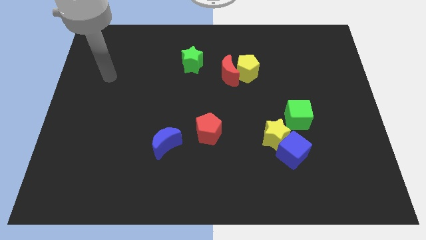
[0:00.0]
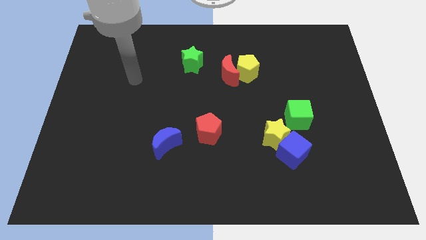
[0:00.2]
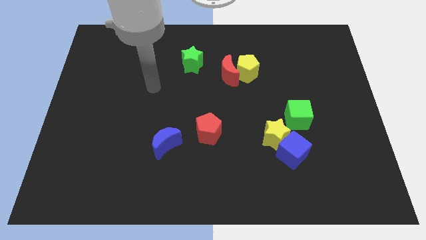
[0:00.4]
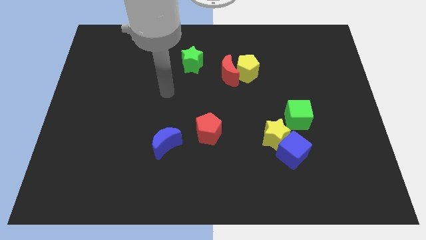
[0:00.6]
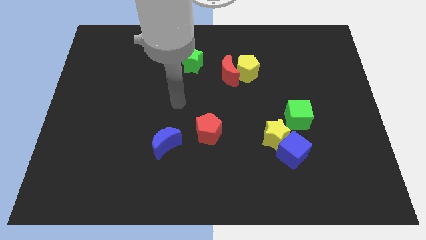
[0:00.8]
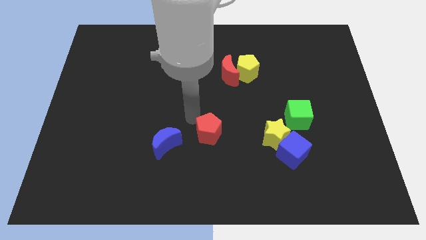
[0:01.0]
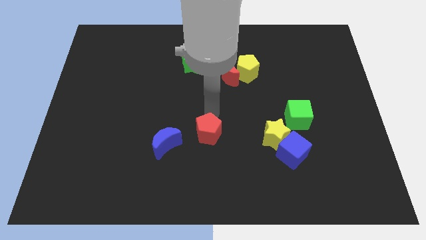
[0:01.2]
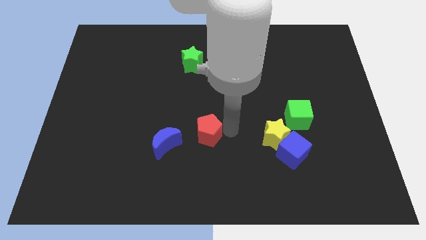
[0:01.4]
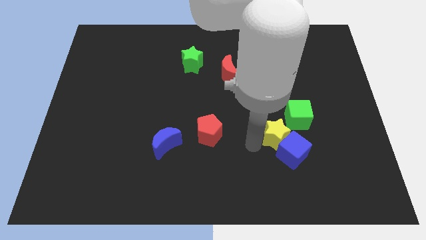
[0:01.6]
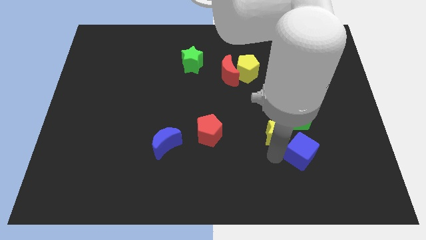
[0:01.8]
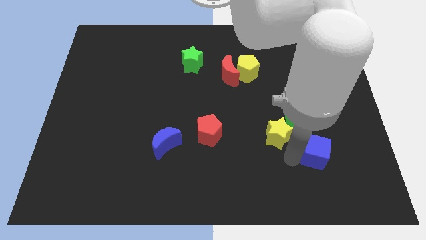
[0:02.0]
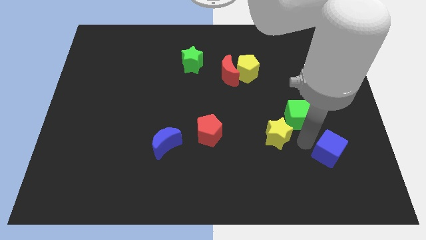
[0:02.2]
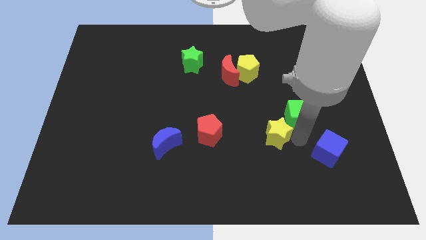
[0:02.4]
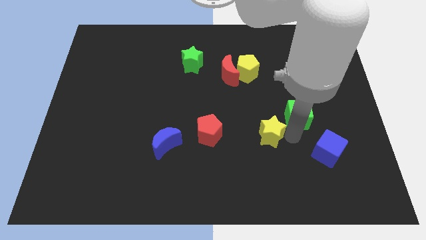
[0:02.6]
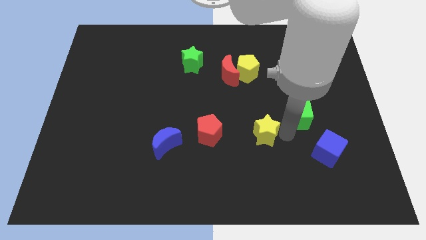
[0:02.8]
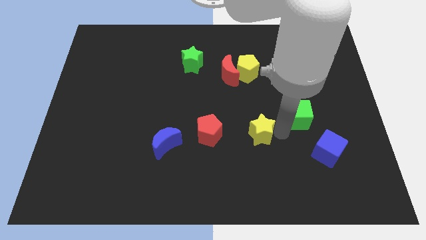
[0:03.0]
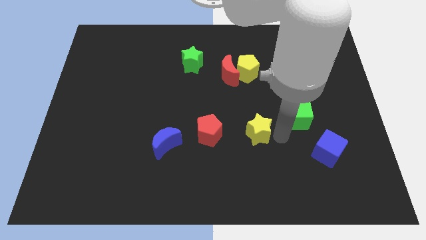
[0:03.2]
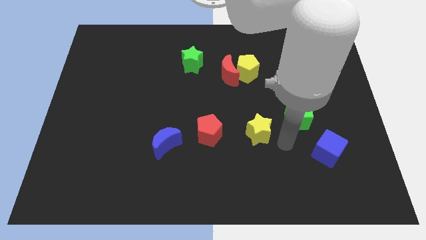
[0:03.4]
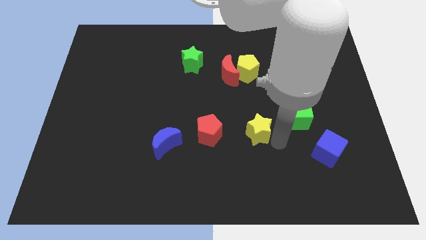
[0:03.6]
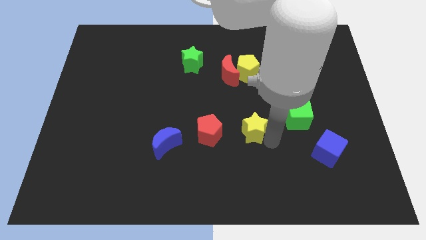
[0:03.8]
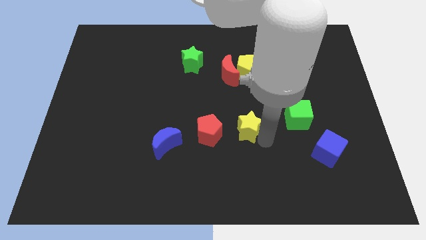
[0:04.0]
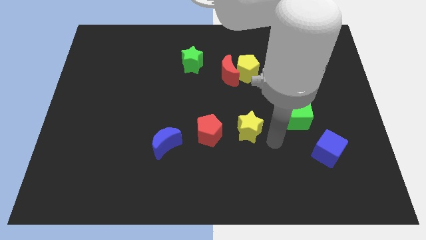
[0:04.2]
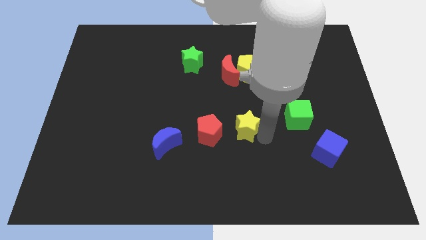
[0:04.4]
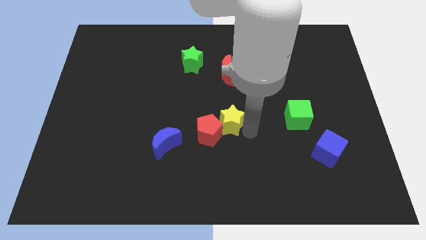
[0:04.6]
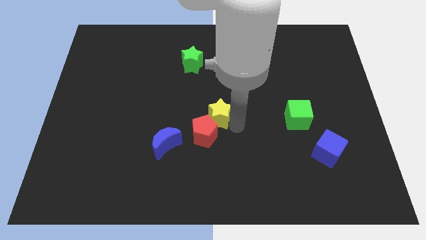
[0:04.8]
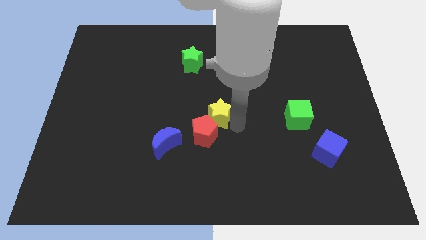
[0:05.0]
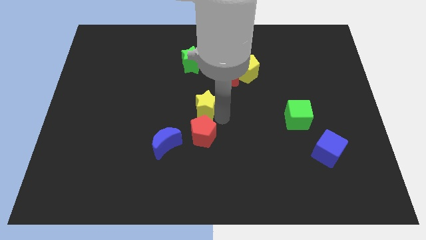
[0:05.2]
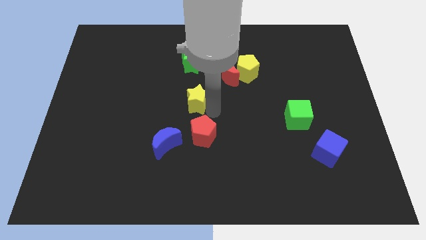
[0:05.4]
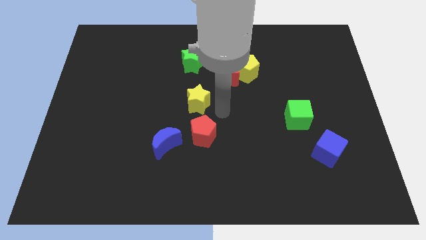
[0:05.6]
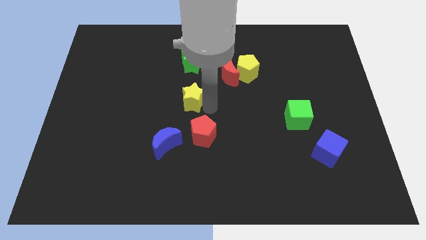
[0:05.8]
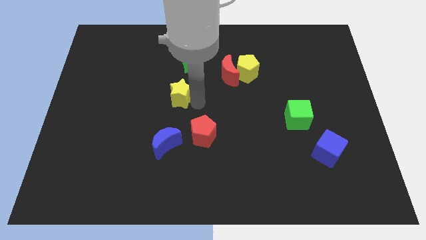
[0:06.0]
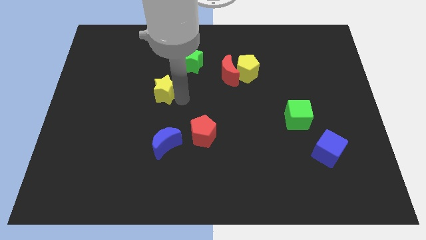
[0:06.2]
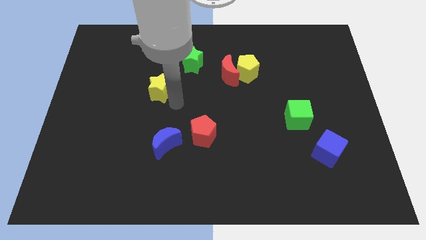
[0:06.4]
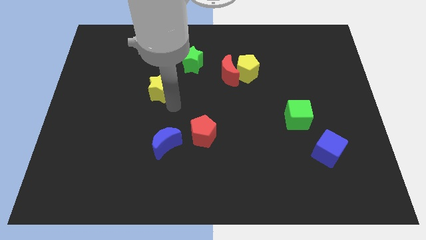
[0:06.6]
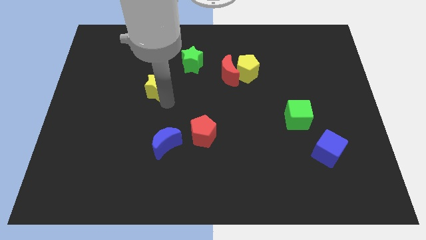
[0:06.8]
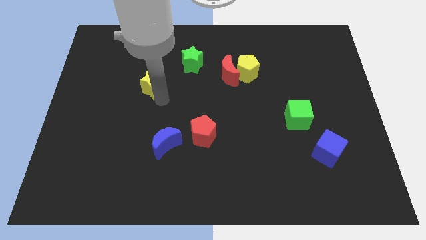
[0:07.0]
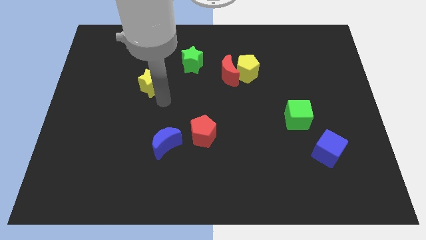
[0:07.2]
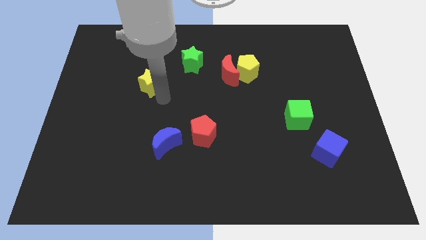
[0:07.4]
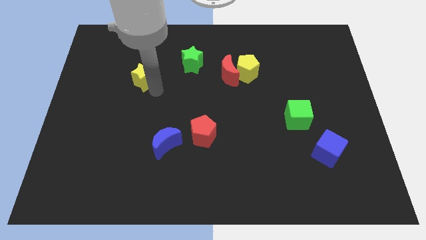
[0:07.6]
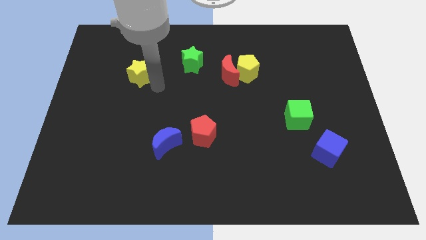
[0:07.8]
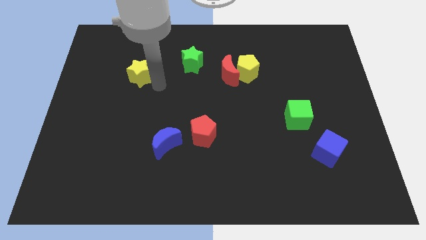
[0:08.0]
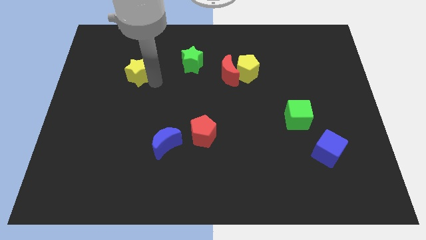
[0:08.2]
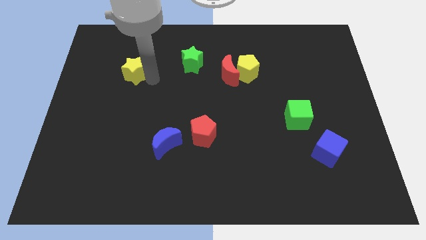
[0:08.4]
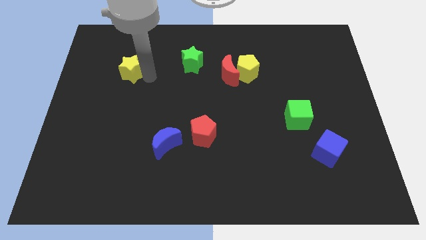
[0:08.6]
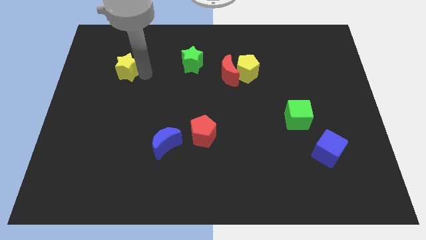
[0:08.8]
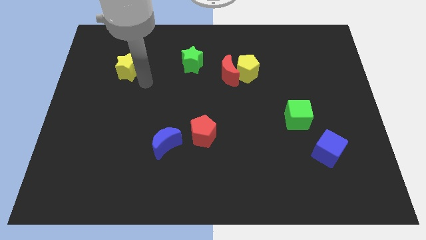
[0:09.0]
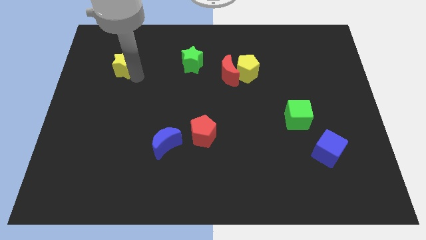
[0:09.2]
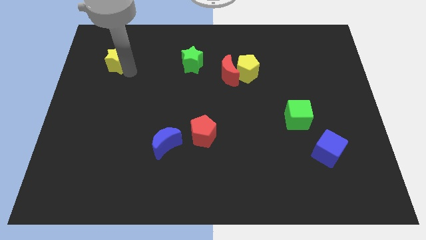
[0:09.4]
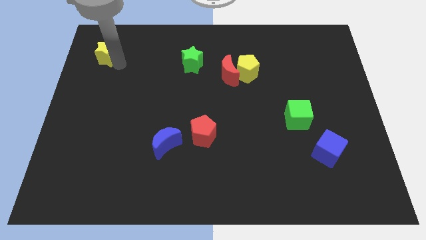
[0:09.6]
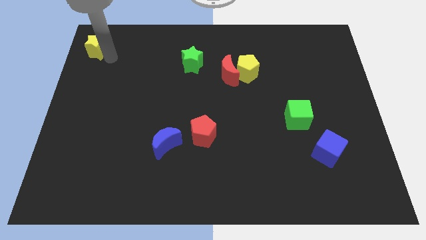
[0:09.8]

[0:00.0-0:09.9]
slide the yellow star to the top left corner

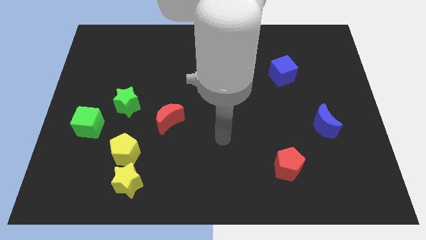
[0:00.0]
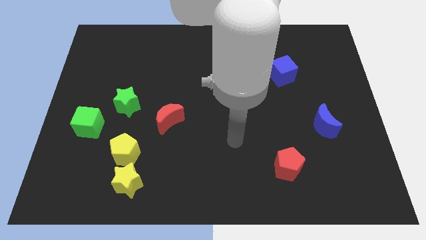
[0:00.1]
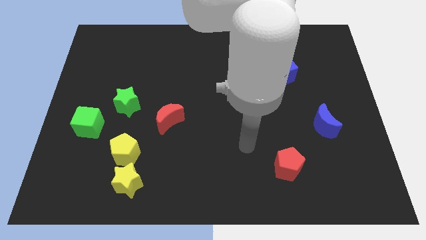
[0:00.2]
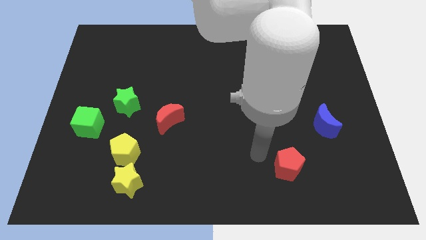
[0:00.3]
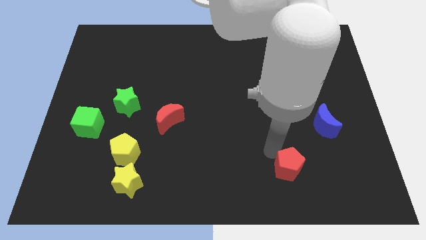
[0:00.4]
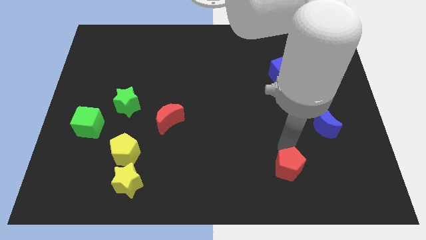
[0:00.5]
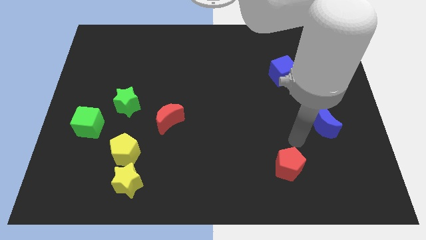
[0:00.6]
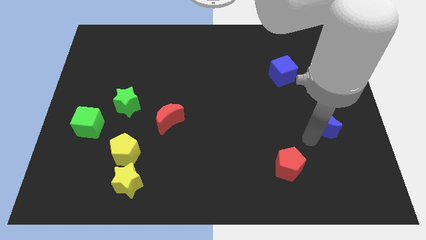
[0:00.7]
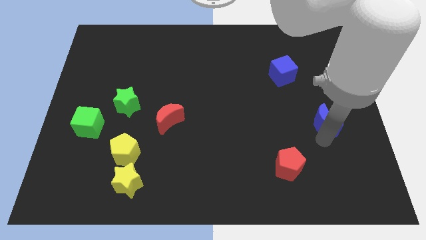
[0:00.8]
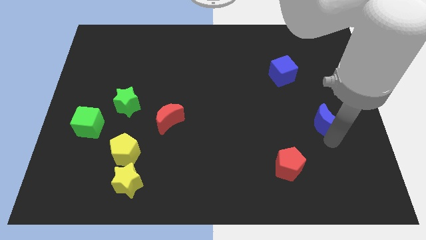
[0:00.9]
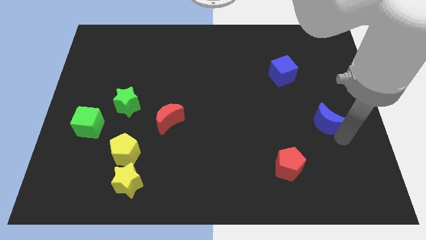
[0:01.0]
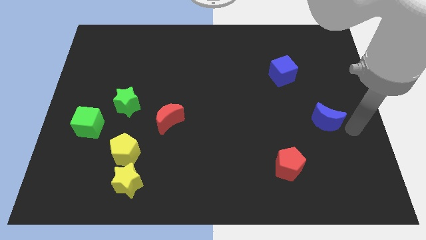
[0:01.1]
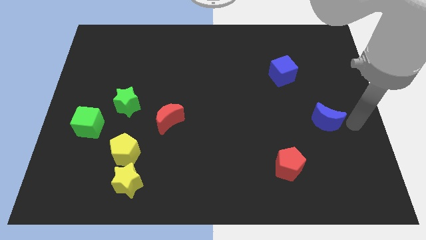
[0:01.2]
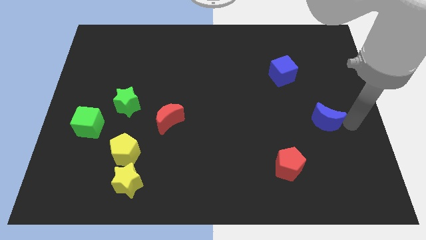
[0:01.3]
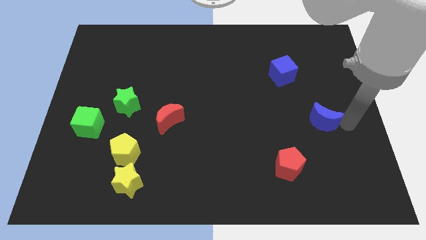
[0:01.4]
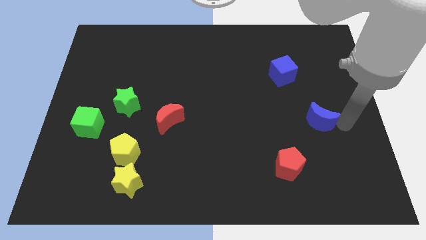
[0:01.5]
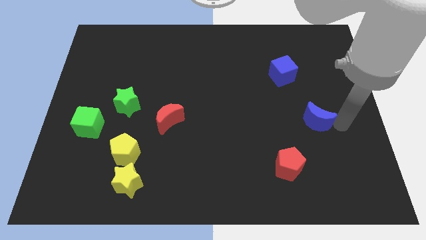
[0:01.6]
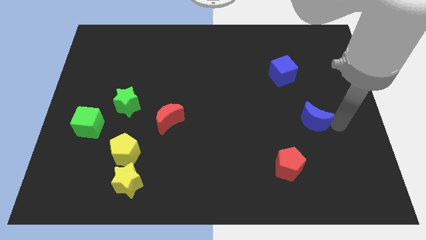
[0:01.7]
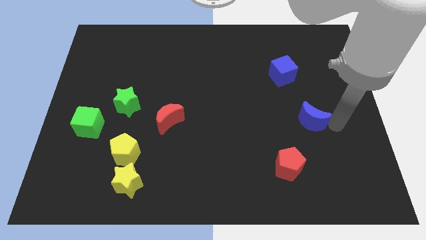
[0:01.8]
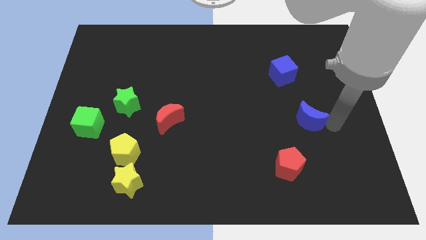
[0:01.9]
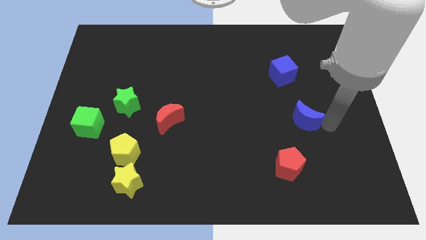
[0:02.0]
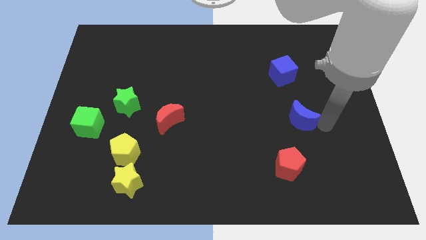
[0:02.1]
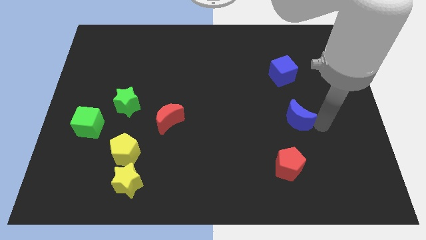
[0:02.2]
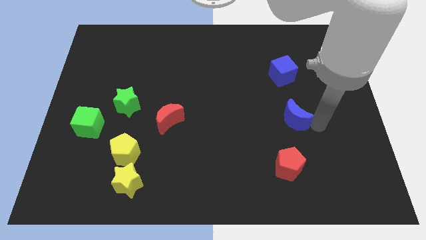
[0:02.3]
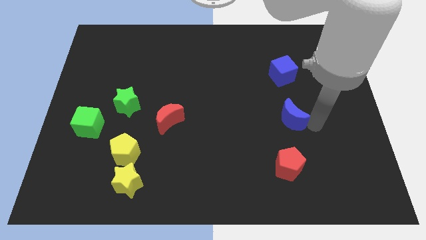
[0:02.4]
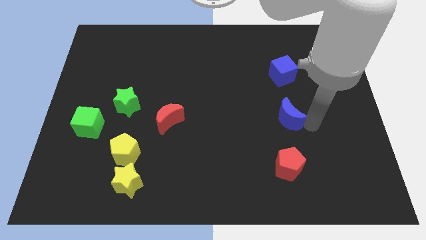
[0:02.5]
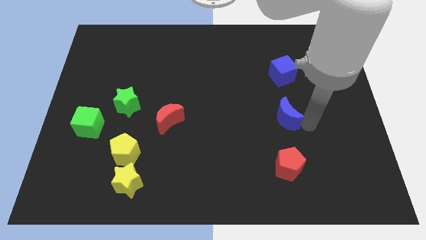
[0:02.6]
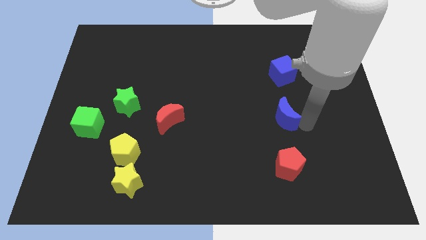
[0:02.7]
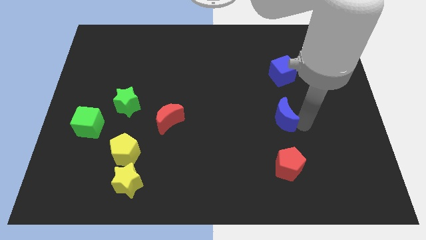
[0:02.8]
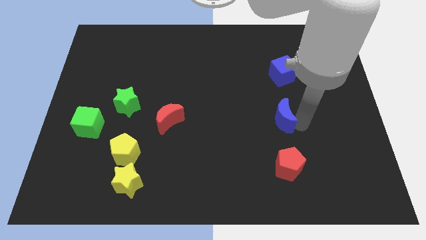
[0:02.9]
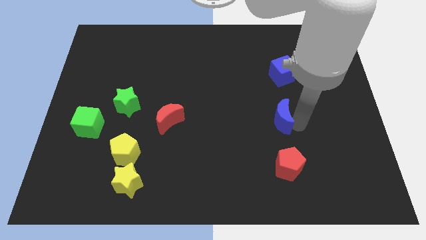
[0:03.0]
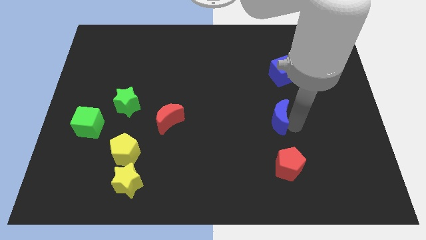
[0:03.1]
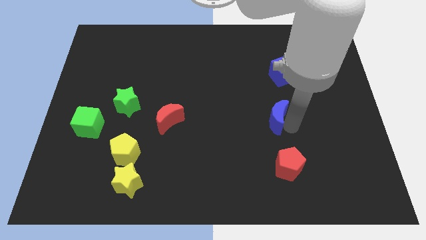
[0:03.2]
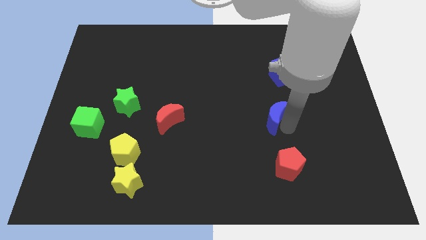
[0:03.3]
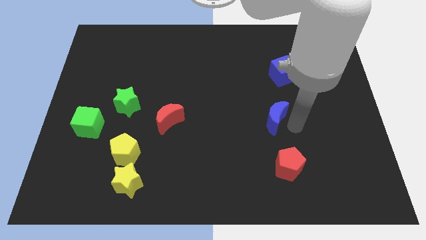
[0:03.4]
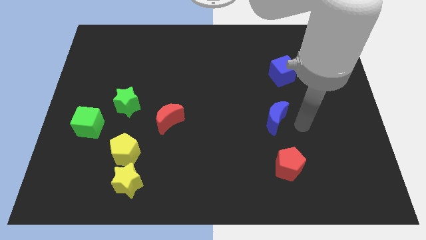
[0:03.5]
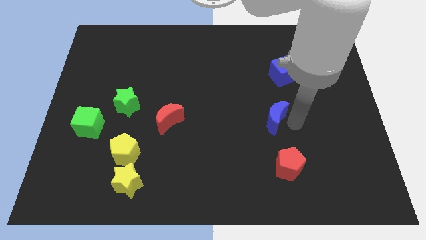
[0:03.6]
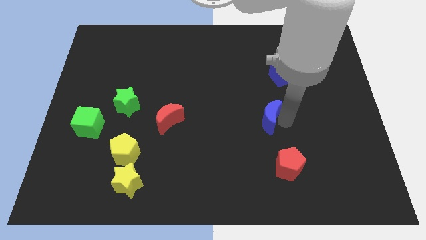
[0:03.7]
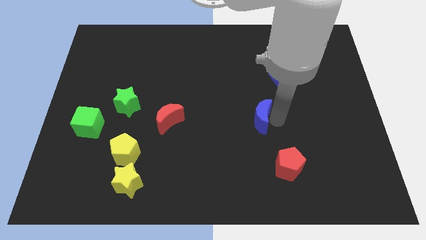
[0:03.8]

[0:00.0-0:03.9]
slide the blue moon to the middle of the board
